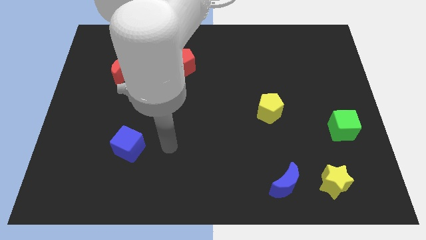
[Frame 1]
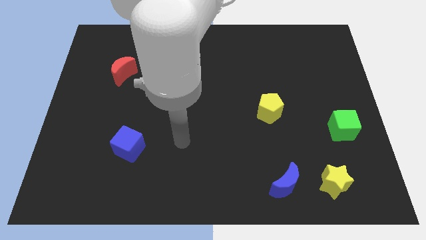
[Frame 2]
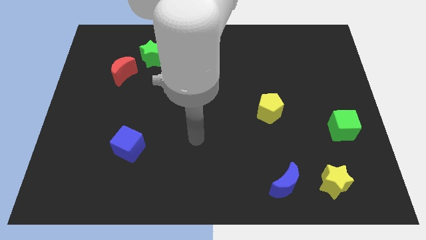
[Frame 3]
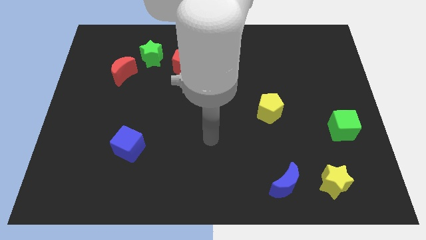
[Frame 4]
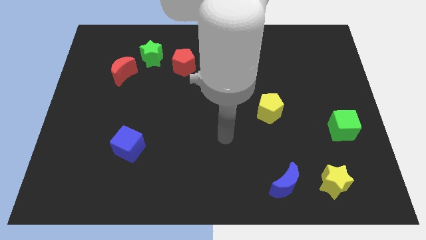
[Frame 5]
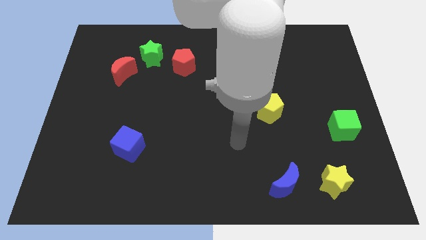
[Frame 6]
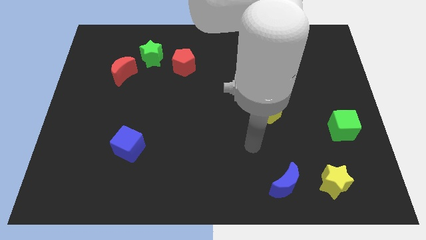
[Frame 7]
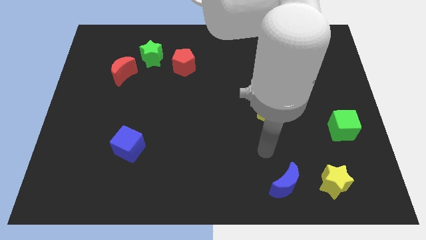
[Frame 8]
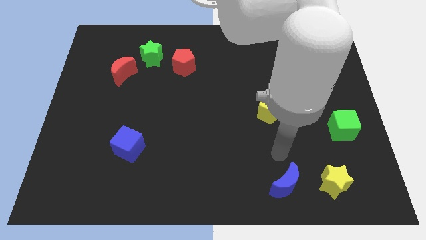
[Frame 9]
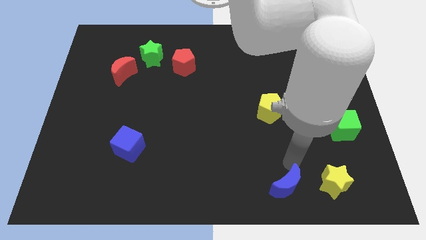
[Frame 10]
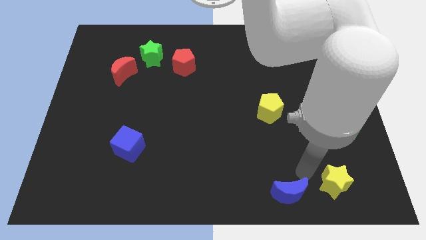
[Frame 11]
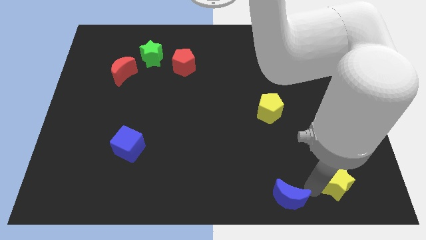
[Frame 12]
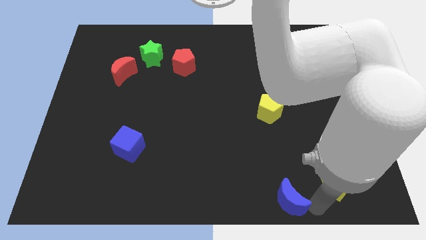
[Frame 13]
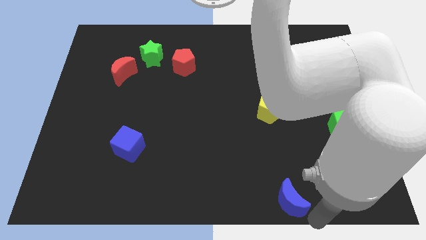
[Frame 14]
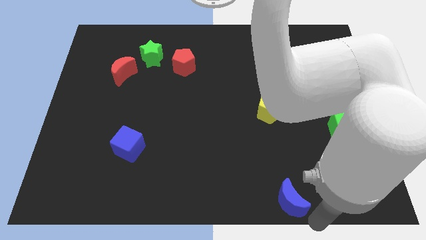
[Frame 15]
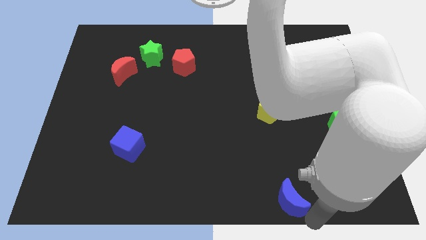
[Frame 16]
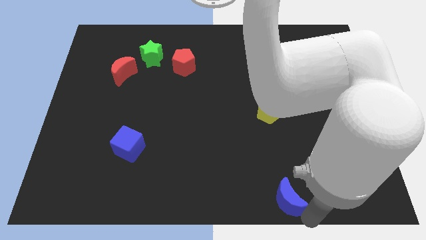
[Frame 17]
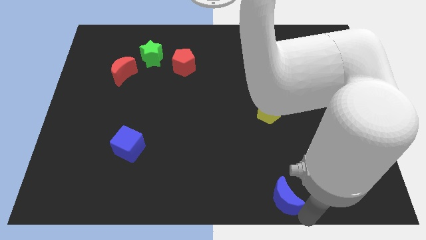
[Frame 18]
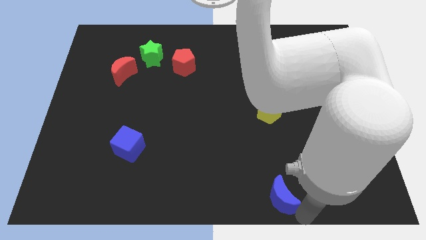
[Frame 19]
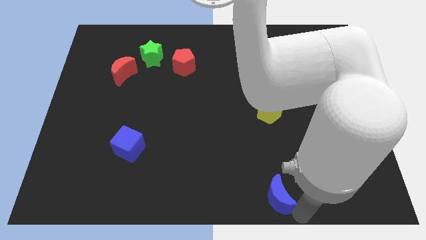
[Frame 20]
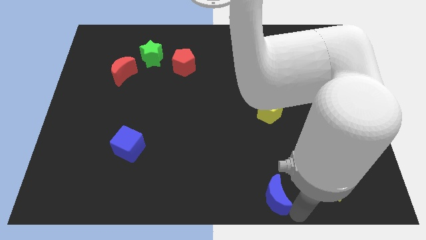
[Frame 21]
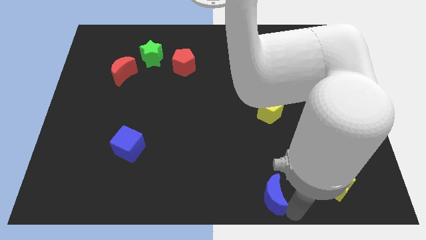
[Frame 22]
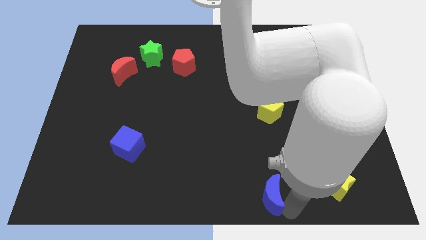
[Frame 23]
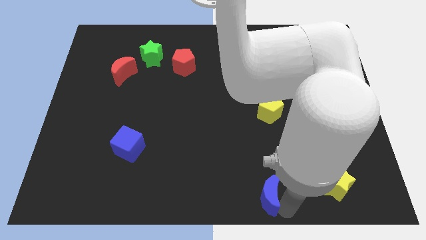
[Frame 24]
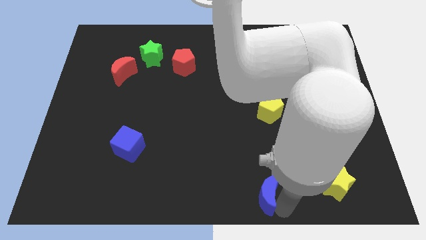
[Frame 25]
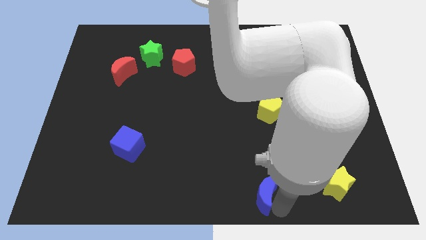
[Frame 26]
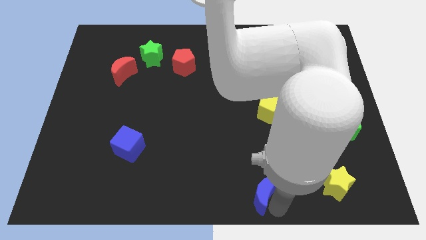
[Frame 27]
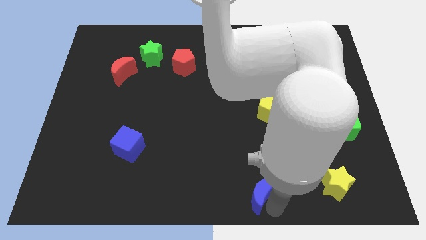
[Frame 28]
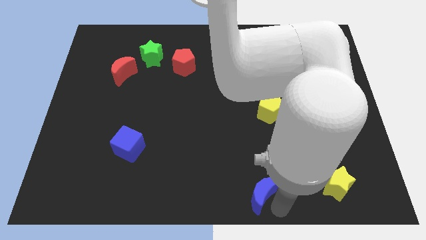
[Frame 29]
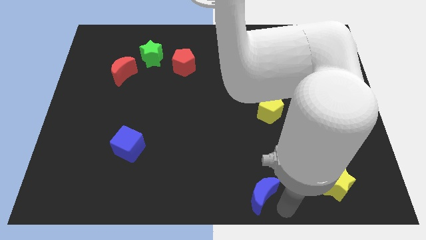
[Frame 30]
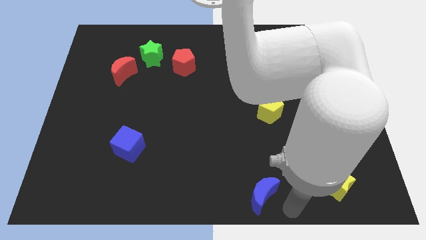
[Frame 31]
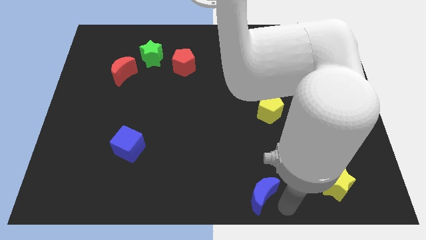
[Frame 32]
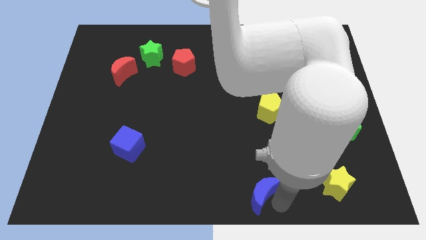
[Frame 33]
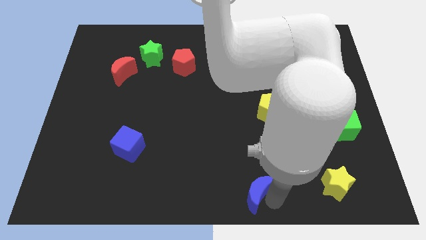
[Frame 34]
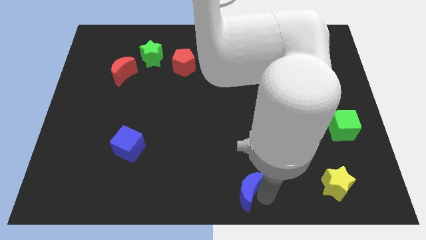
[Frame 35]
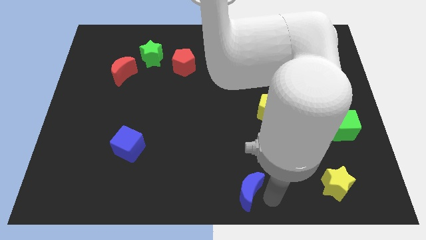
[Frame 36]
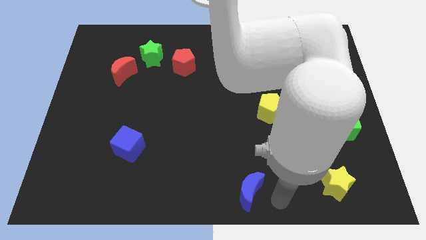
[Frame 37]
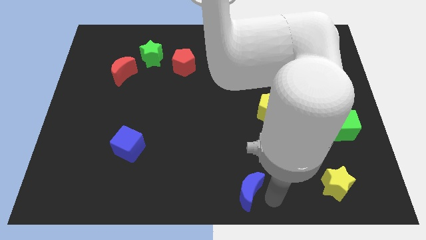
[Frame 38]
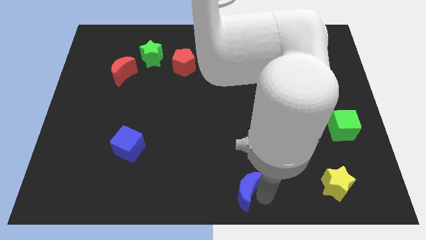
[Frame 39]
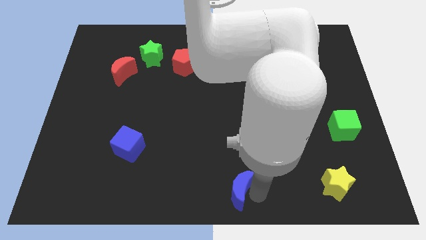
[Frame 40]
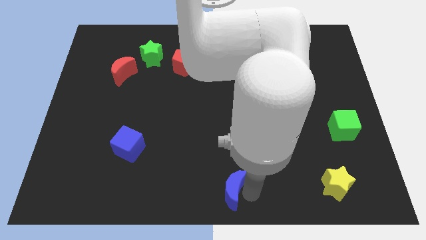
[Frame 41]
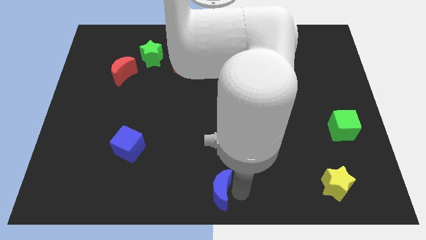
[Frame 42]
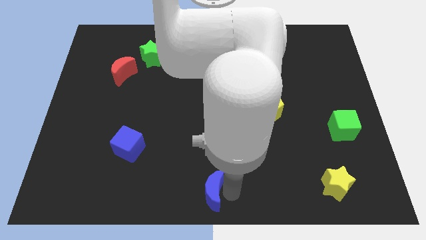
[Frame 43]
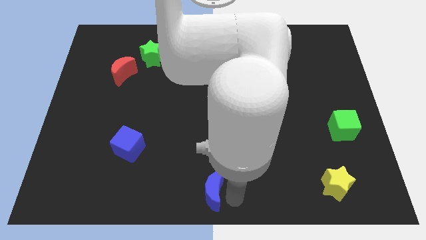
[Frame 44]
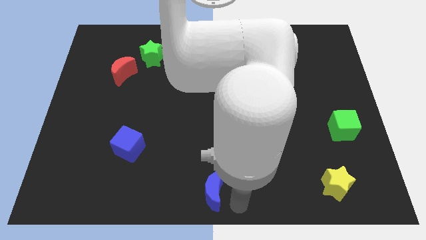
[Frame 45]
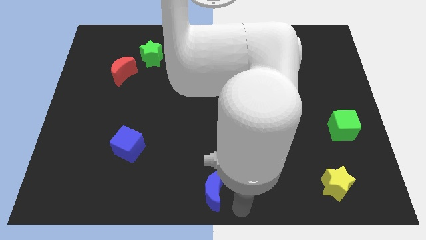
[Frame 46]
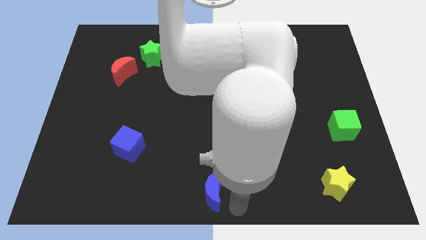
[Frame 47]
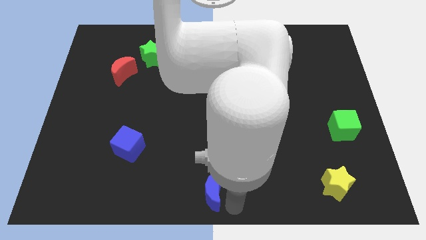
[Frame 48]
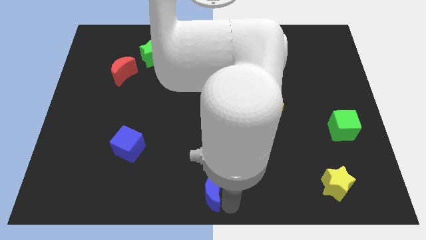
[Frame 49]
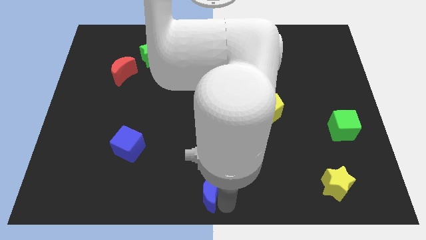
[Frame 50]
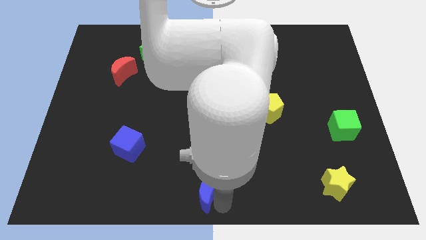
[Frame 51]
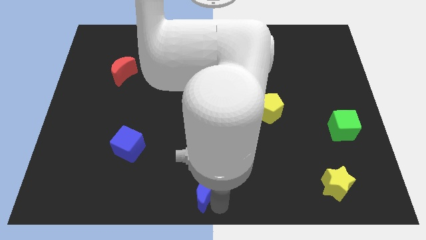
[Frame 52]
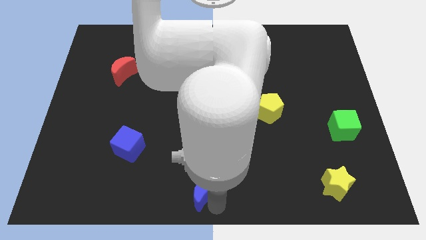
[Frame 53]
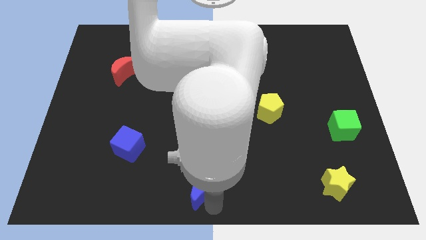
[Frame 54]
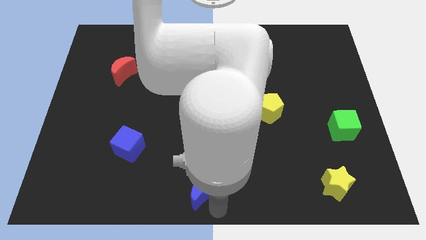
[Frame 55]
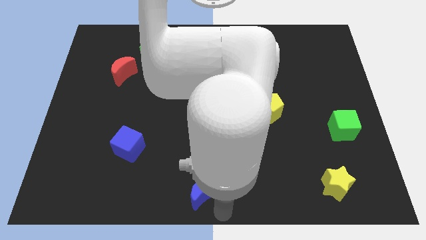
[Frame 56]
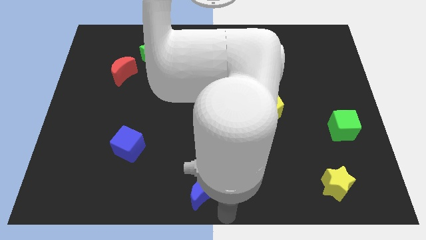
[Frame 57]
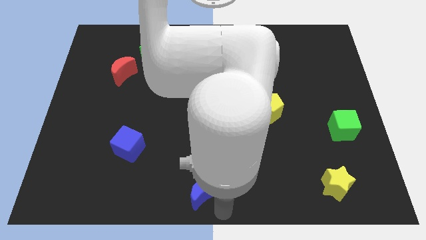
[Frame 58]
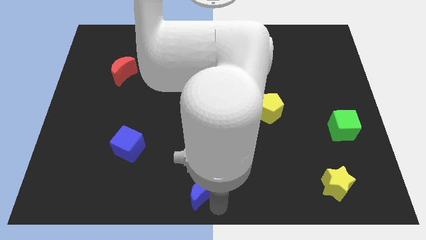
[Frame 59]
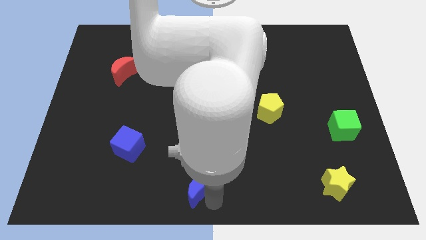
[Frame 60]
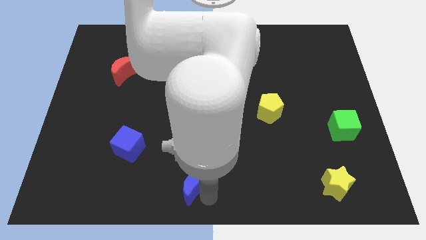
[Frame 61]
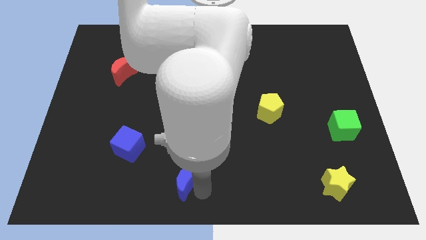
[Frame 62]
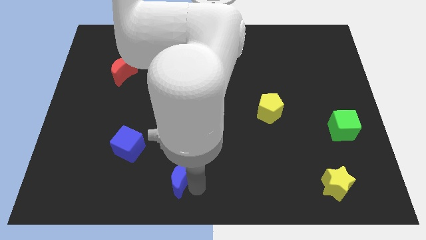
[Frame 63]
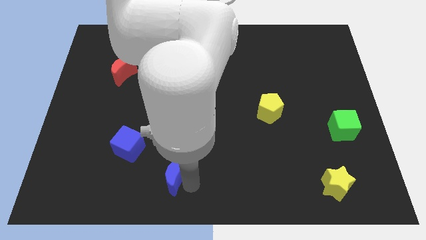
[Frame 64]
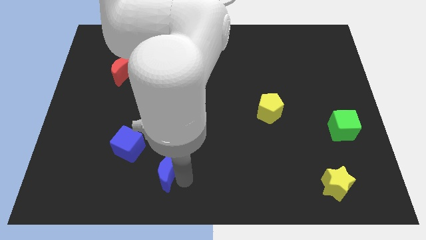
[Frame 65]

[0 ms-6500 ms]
slide the blue moon diagonally down and to the right of the blue cube
